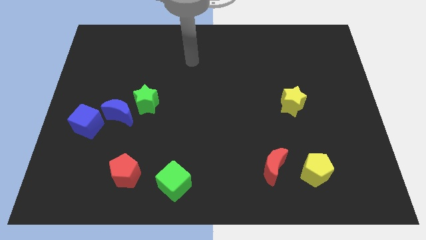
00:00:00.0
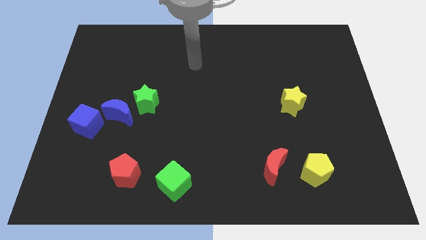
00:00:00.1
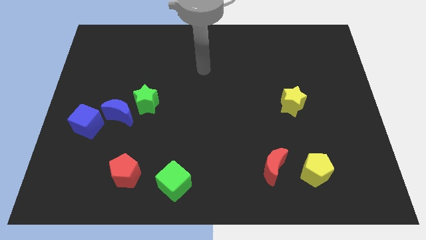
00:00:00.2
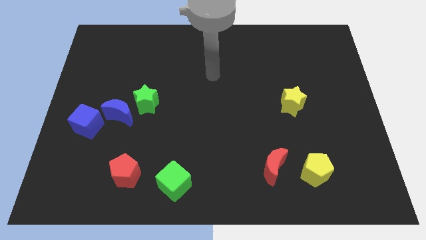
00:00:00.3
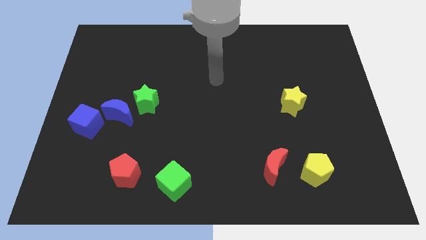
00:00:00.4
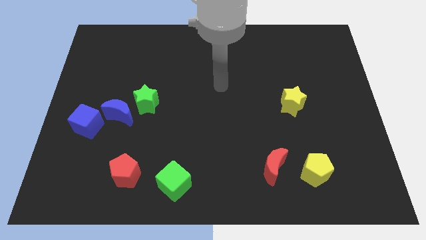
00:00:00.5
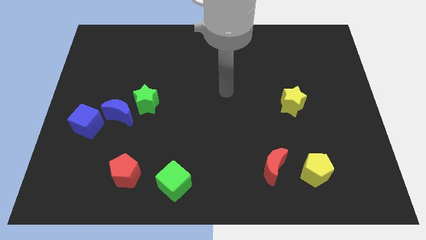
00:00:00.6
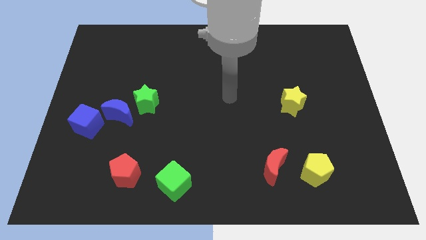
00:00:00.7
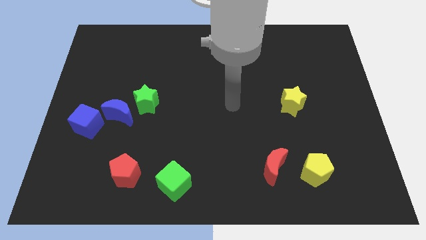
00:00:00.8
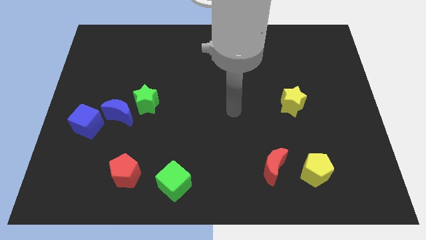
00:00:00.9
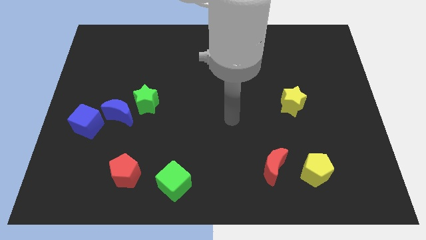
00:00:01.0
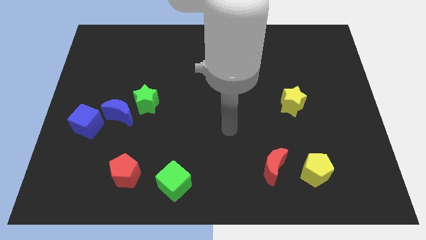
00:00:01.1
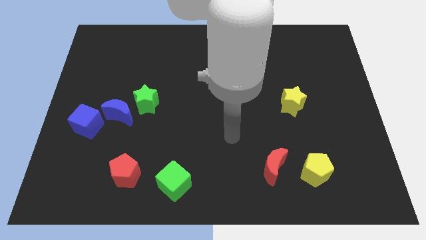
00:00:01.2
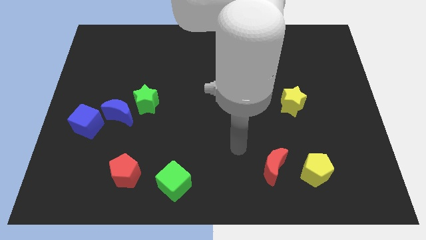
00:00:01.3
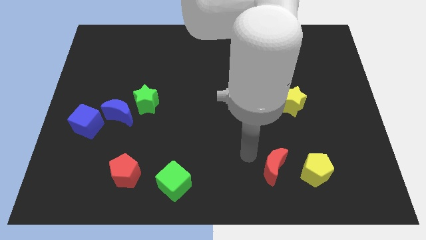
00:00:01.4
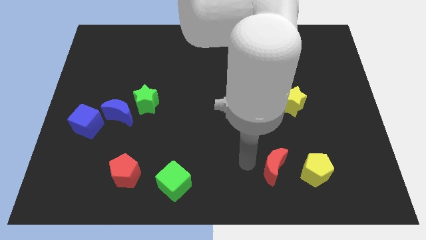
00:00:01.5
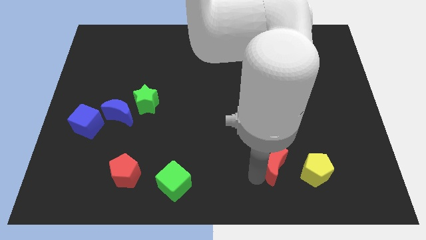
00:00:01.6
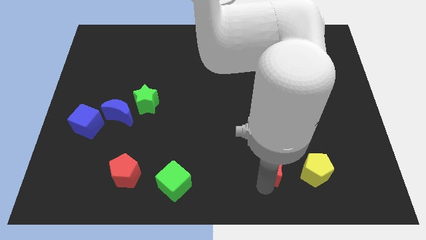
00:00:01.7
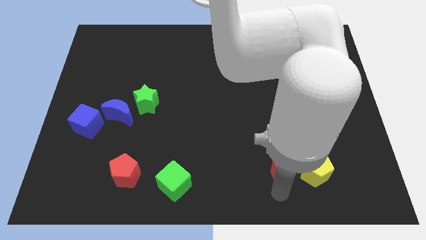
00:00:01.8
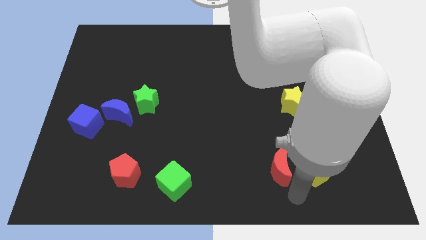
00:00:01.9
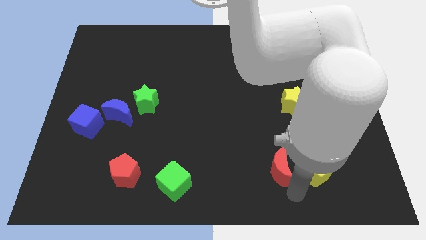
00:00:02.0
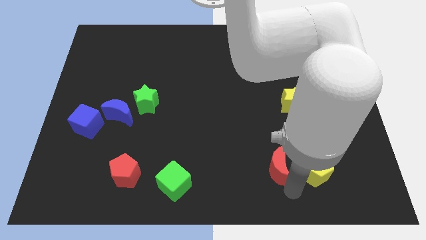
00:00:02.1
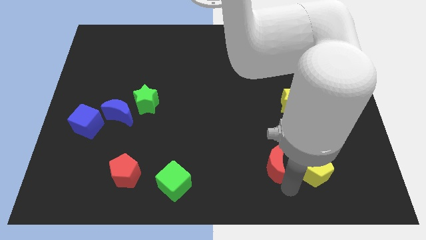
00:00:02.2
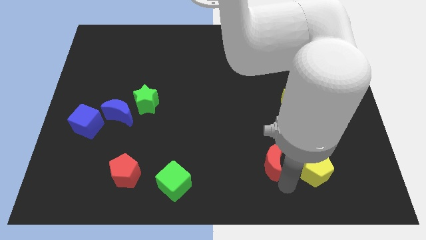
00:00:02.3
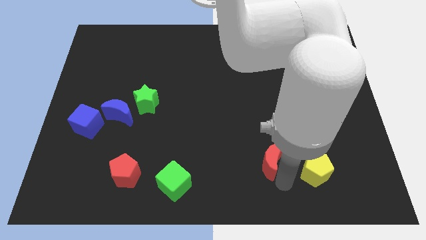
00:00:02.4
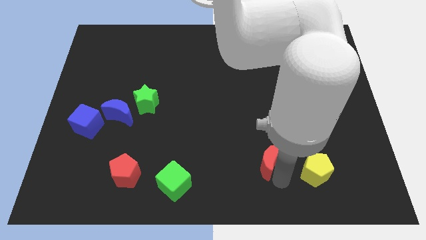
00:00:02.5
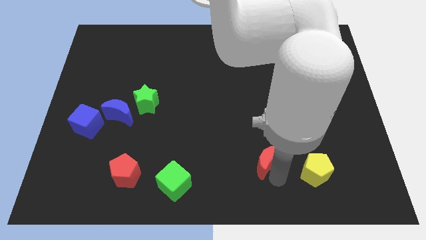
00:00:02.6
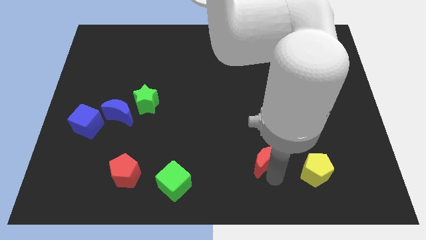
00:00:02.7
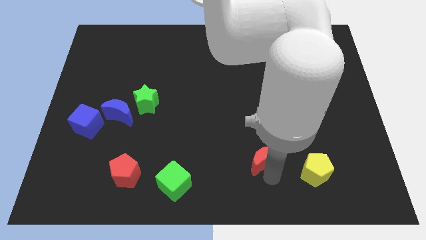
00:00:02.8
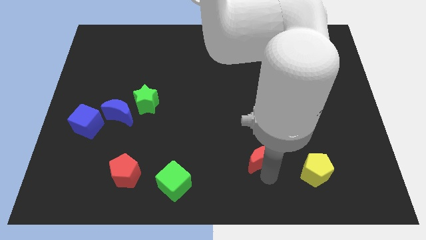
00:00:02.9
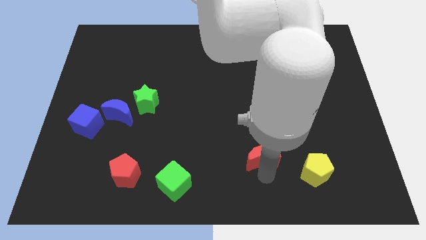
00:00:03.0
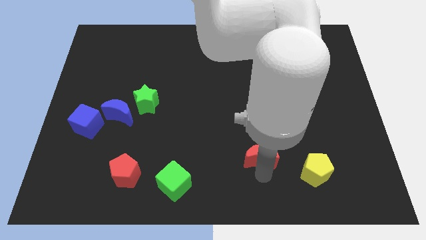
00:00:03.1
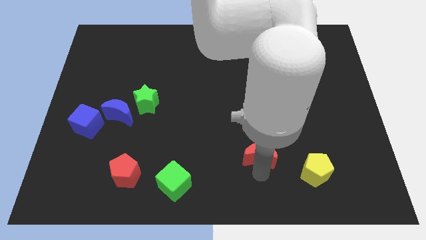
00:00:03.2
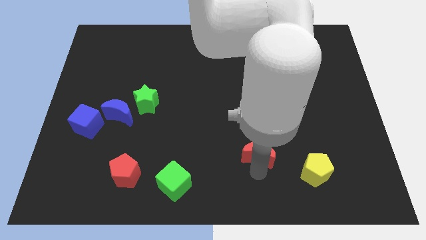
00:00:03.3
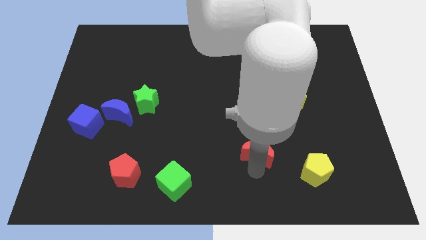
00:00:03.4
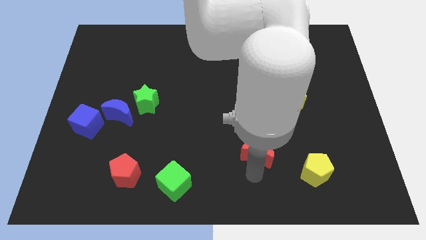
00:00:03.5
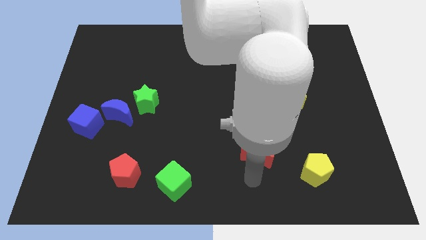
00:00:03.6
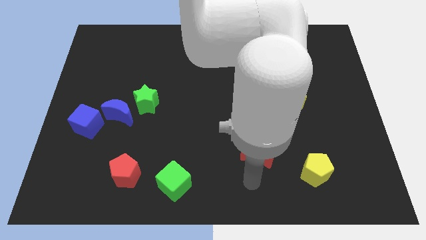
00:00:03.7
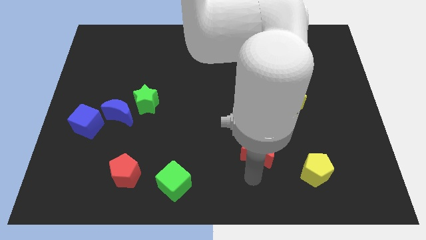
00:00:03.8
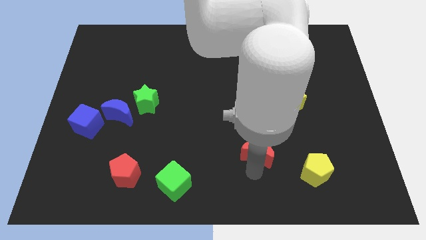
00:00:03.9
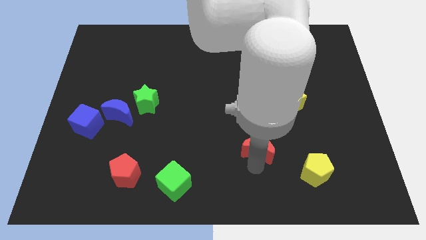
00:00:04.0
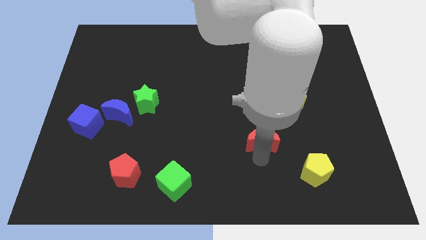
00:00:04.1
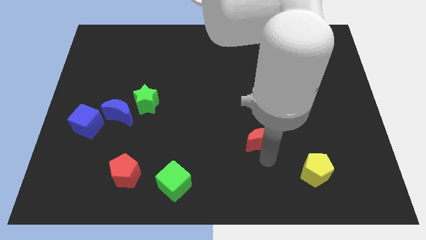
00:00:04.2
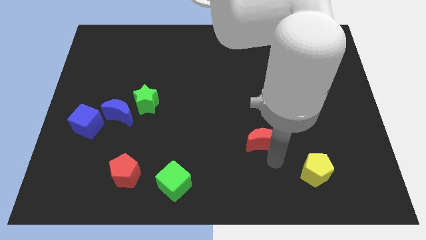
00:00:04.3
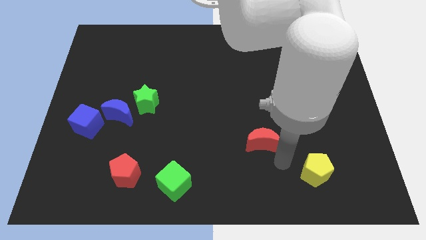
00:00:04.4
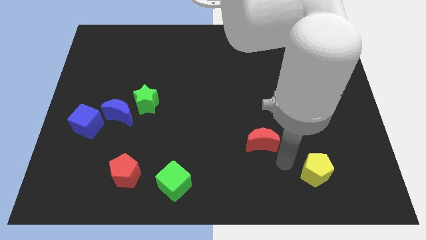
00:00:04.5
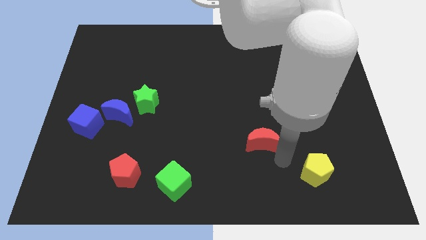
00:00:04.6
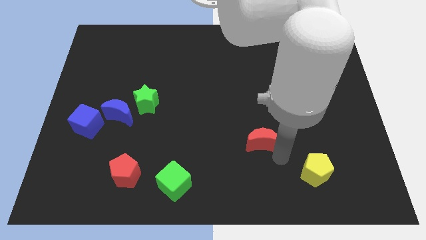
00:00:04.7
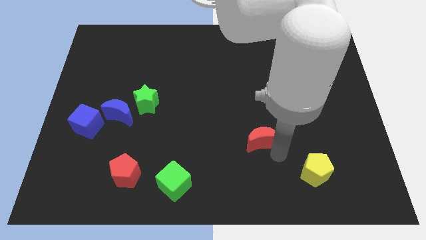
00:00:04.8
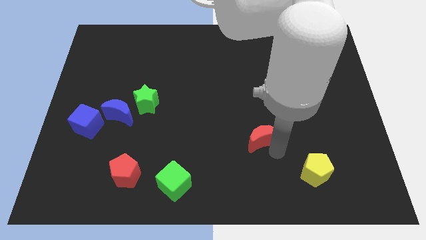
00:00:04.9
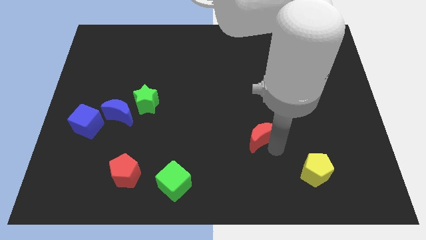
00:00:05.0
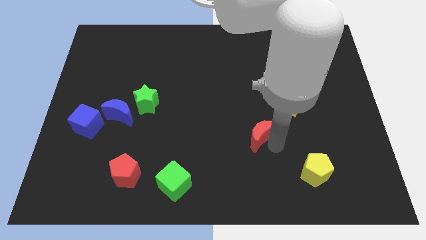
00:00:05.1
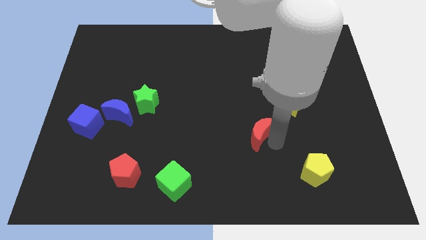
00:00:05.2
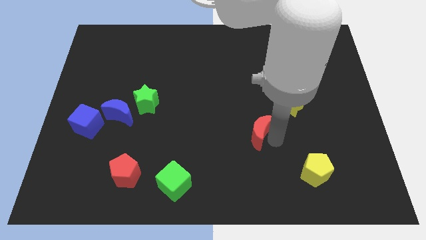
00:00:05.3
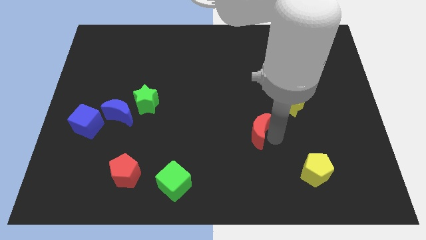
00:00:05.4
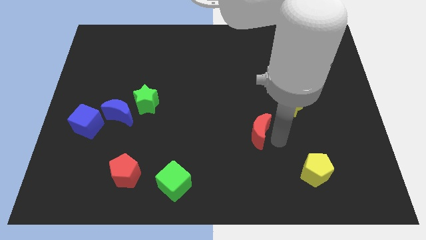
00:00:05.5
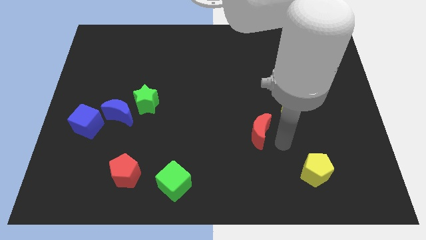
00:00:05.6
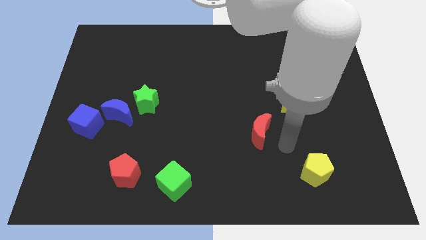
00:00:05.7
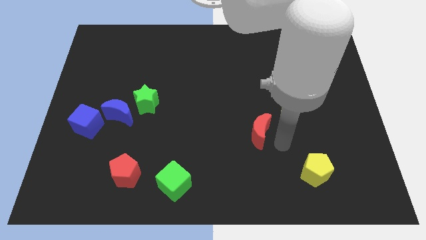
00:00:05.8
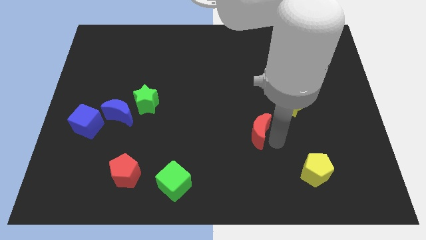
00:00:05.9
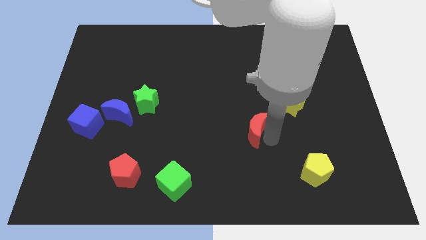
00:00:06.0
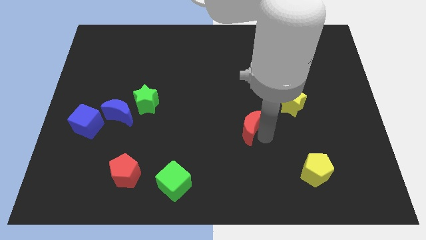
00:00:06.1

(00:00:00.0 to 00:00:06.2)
push the red moon to the middle of the board
